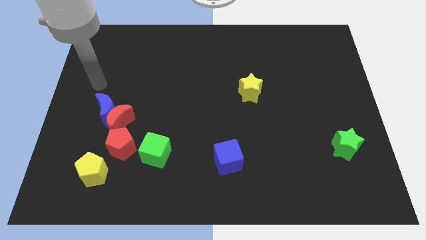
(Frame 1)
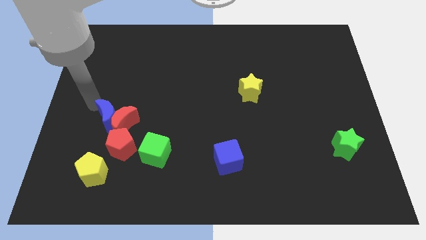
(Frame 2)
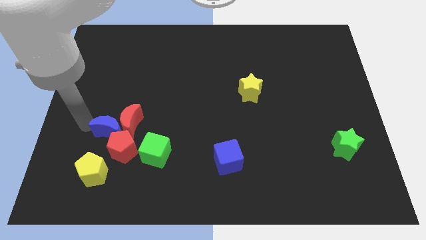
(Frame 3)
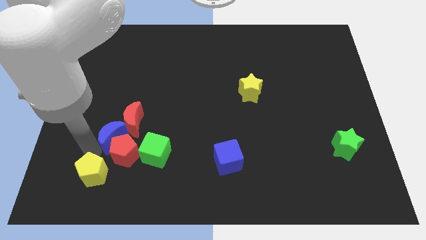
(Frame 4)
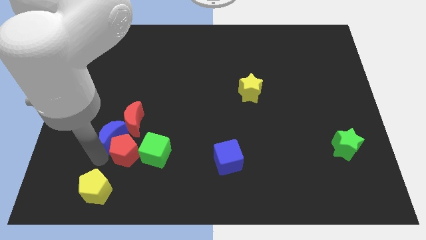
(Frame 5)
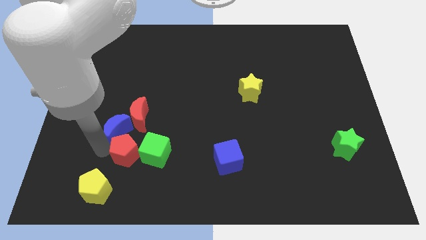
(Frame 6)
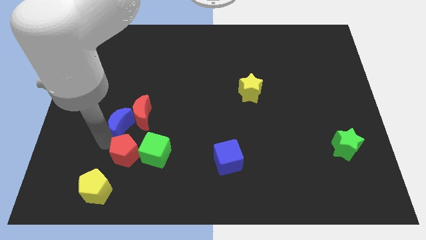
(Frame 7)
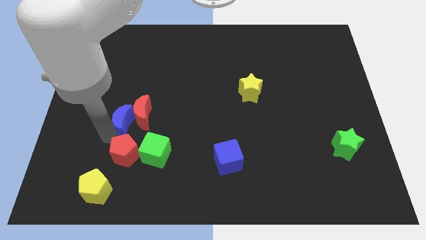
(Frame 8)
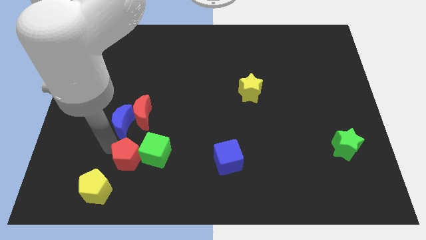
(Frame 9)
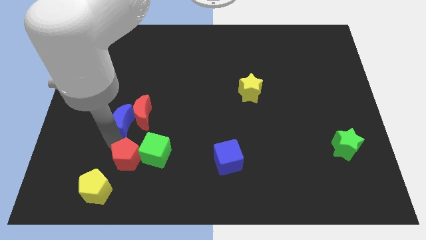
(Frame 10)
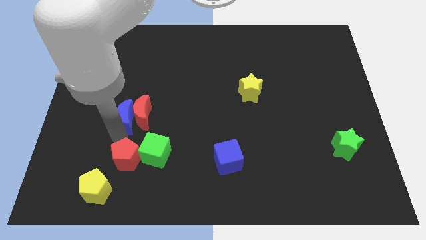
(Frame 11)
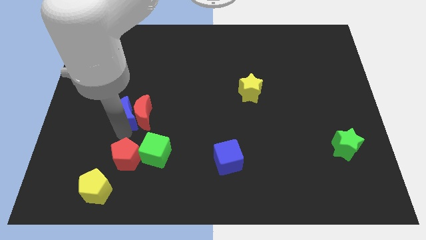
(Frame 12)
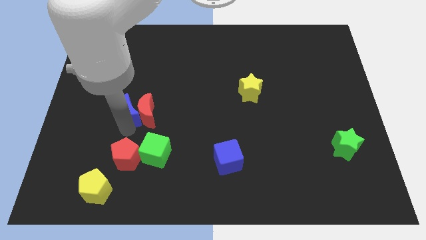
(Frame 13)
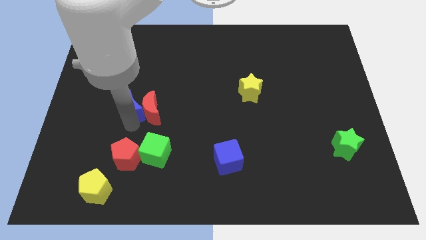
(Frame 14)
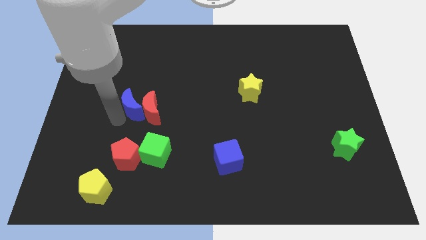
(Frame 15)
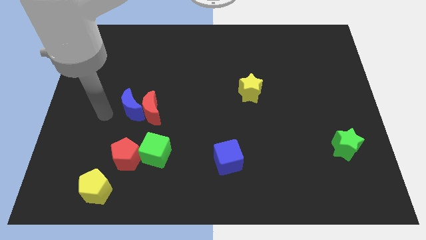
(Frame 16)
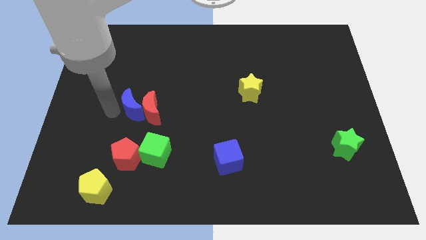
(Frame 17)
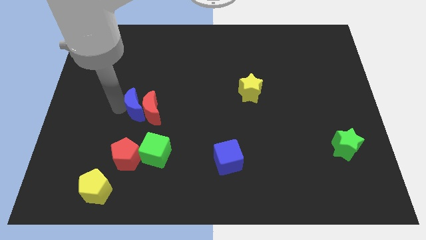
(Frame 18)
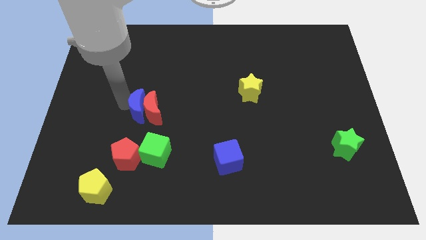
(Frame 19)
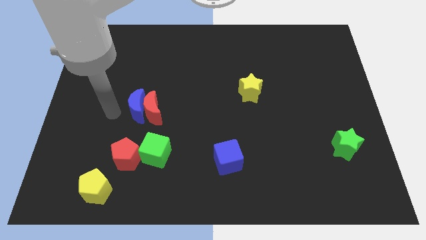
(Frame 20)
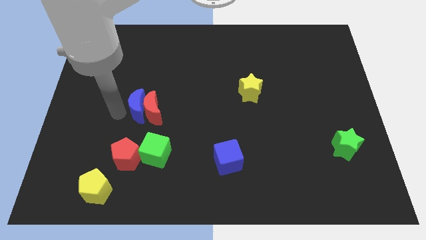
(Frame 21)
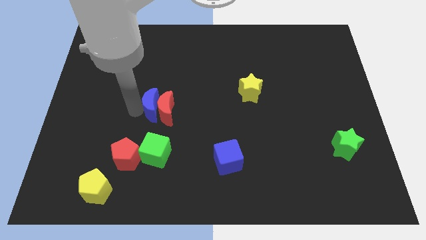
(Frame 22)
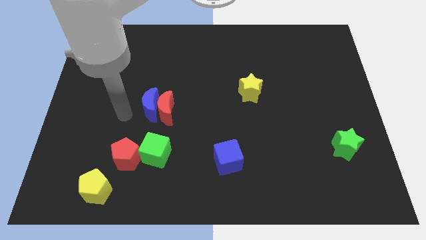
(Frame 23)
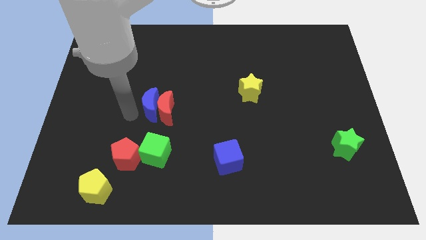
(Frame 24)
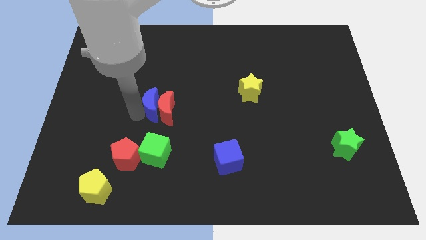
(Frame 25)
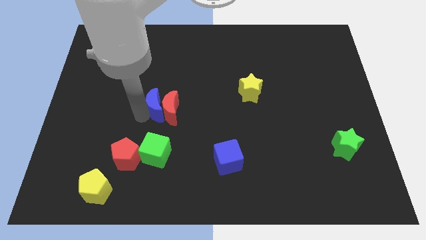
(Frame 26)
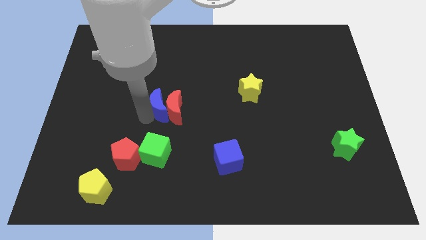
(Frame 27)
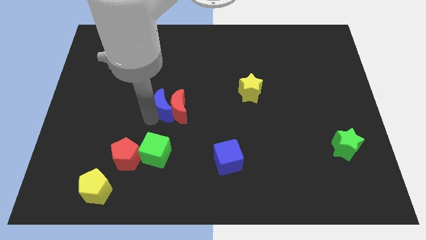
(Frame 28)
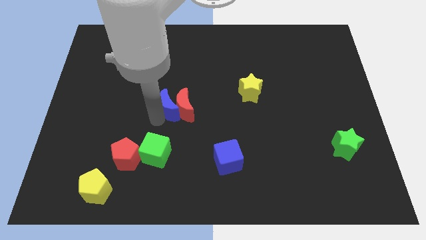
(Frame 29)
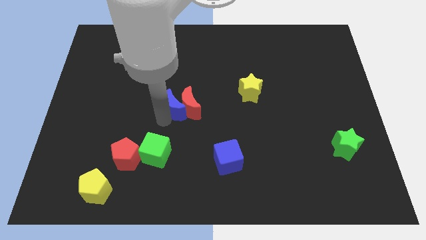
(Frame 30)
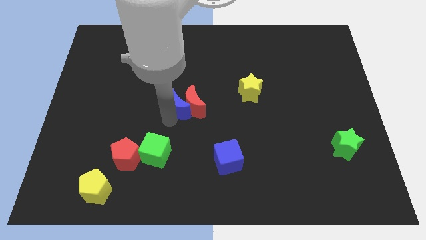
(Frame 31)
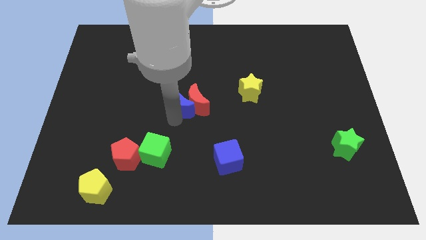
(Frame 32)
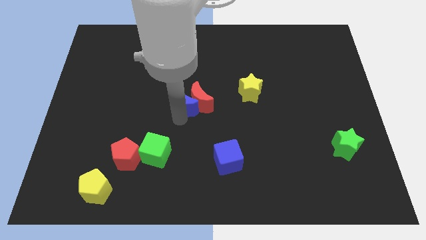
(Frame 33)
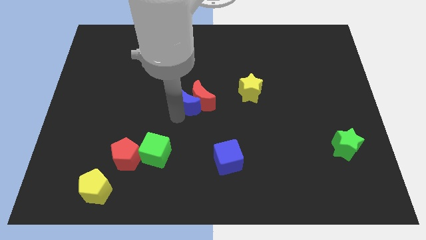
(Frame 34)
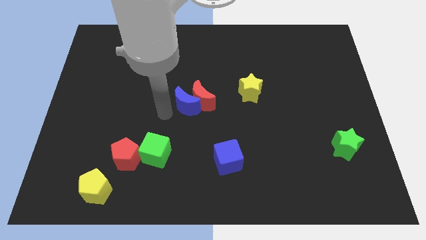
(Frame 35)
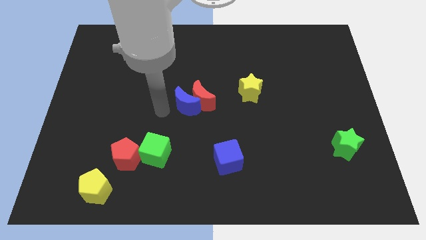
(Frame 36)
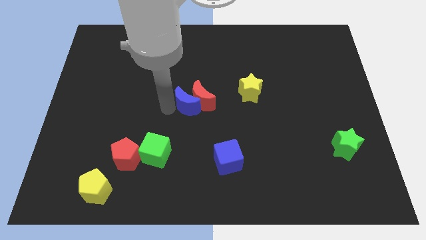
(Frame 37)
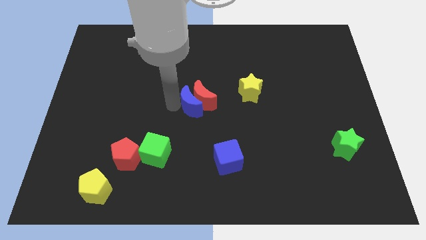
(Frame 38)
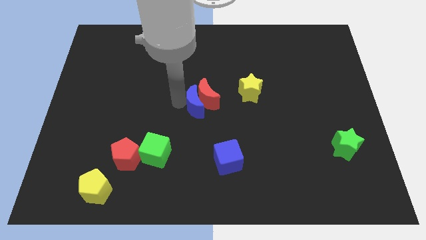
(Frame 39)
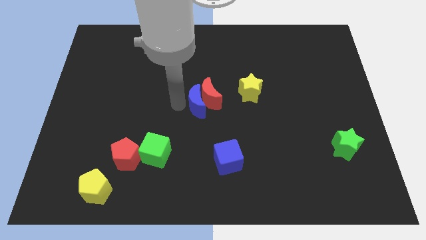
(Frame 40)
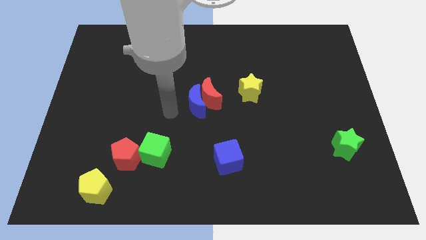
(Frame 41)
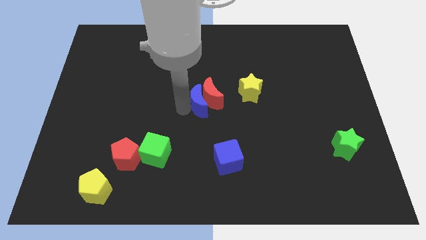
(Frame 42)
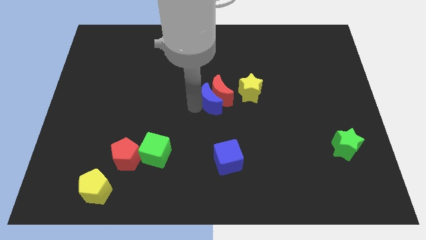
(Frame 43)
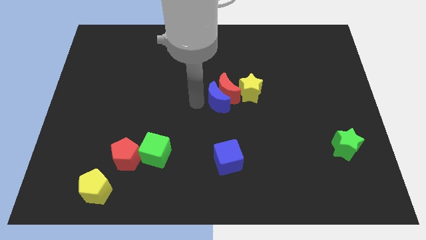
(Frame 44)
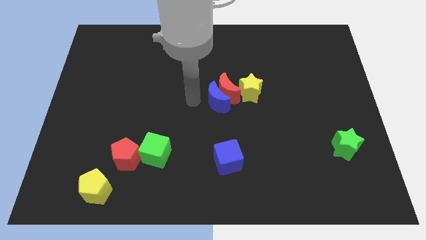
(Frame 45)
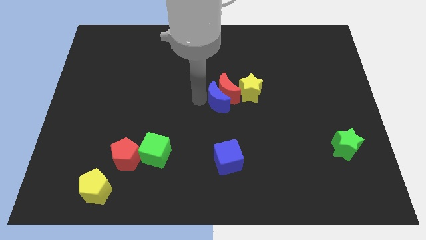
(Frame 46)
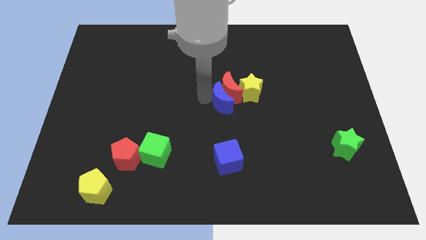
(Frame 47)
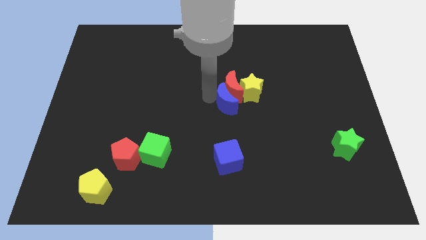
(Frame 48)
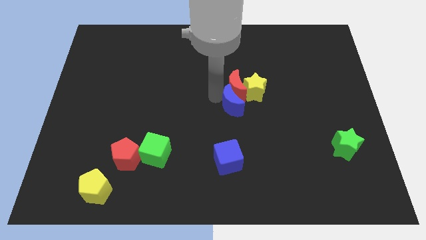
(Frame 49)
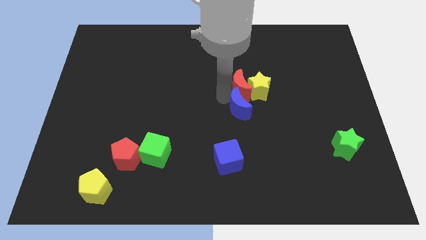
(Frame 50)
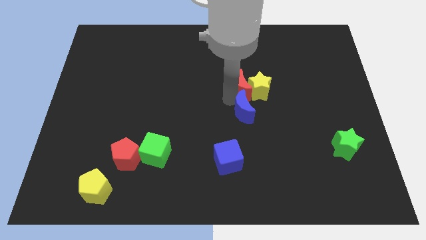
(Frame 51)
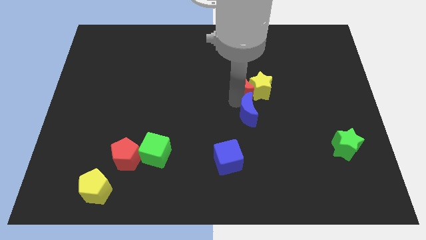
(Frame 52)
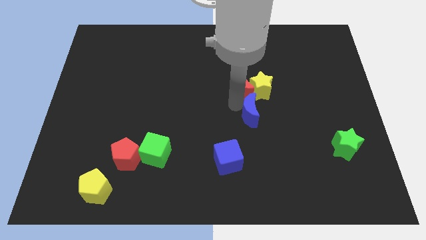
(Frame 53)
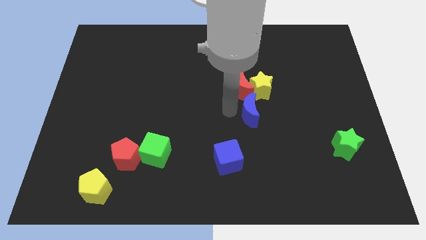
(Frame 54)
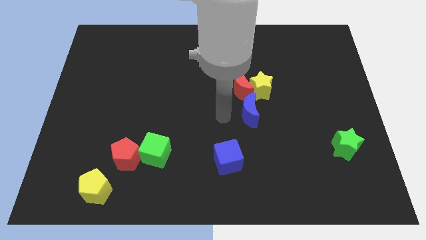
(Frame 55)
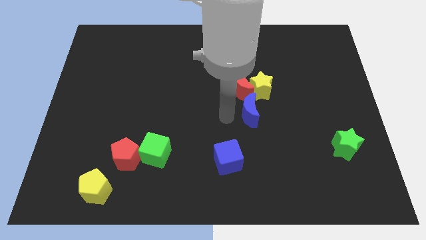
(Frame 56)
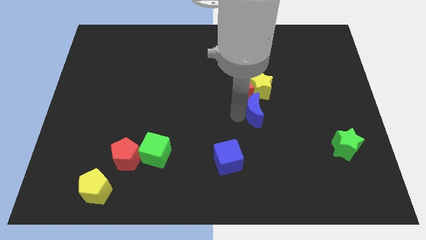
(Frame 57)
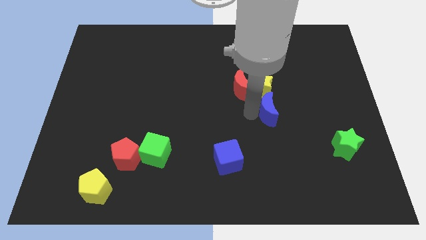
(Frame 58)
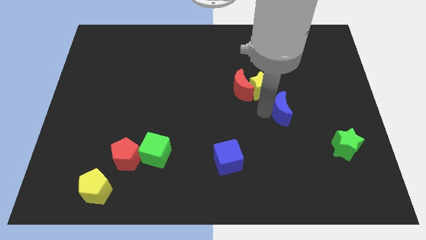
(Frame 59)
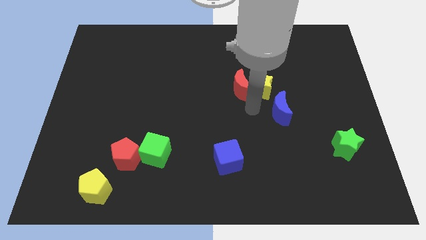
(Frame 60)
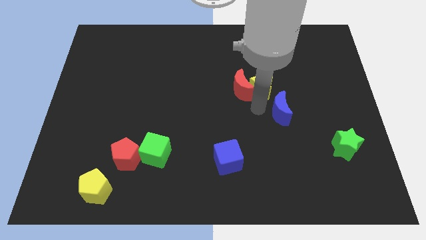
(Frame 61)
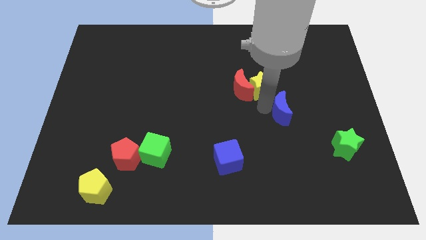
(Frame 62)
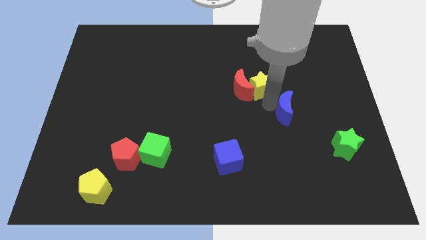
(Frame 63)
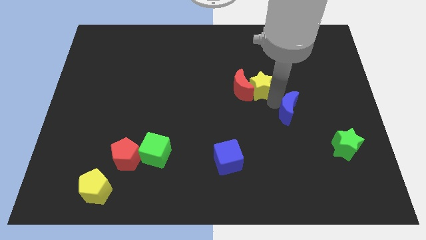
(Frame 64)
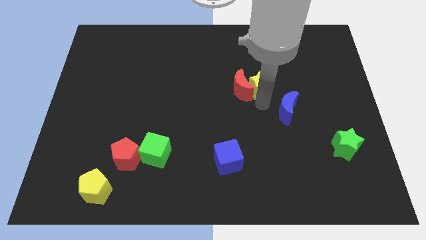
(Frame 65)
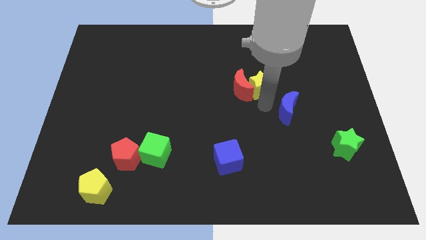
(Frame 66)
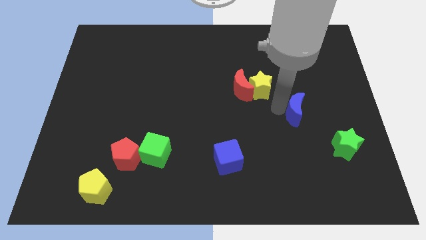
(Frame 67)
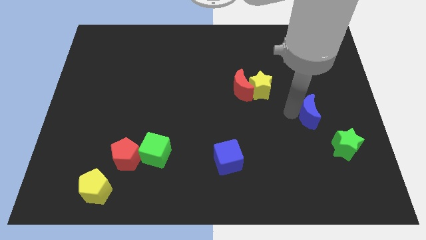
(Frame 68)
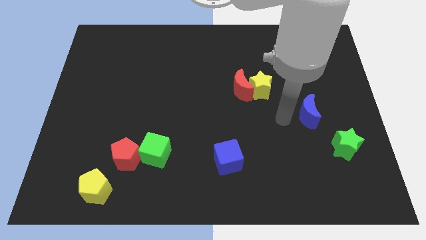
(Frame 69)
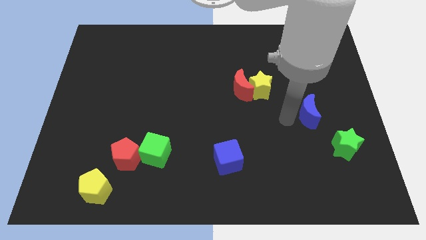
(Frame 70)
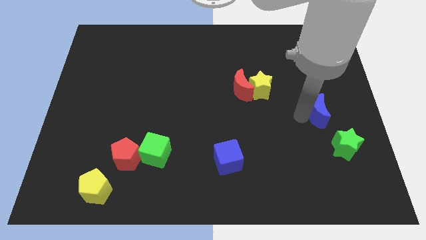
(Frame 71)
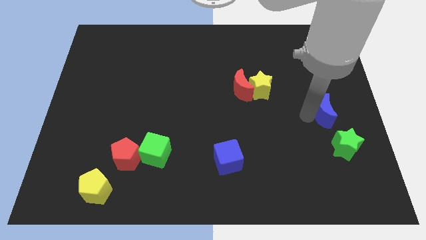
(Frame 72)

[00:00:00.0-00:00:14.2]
put the blue moon to the center right
